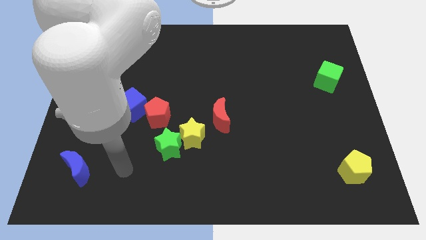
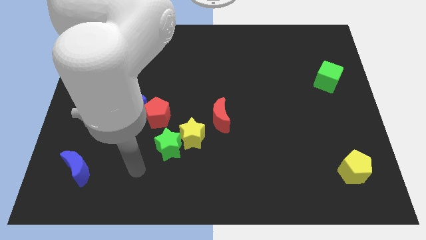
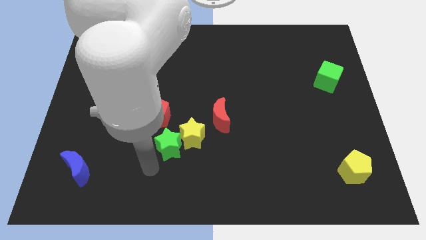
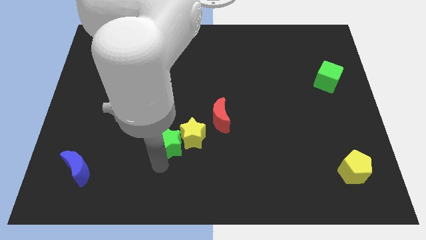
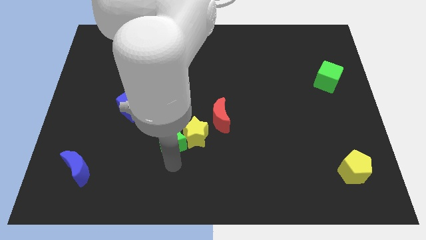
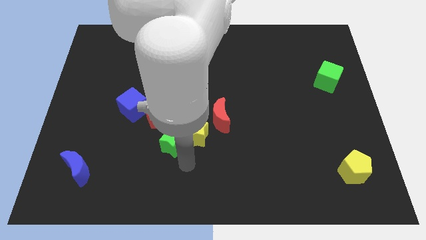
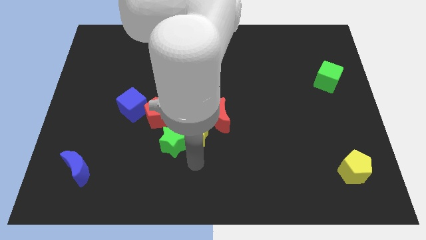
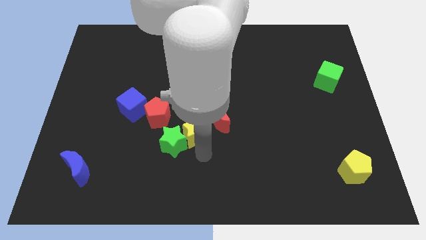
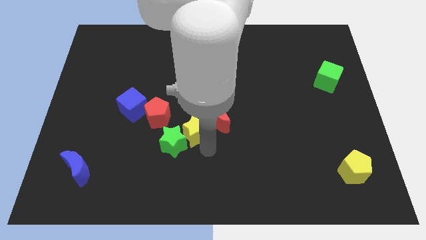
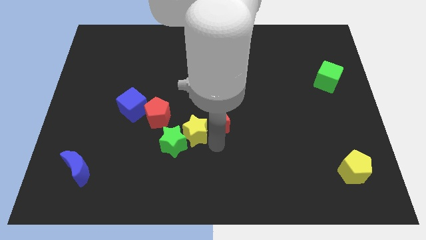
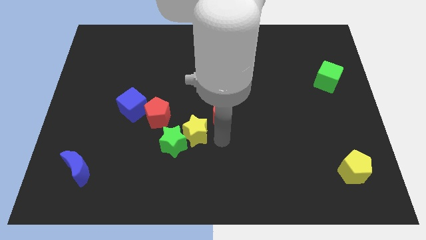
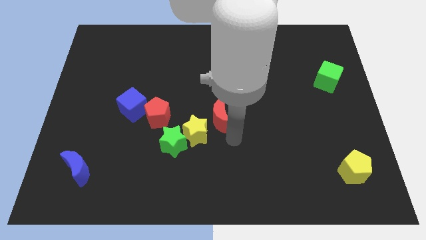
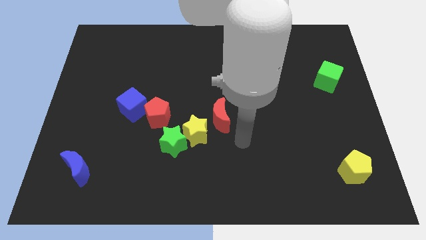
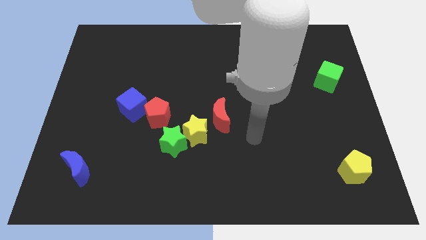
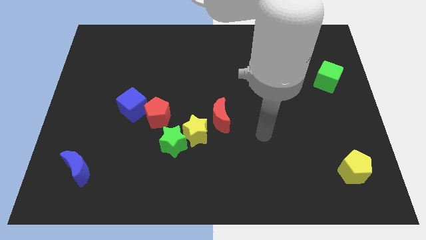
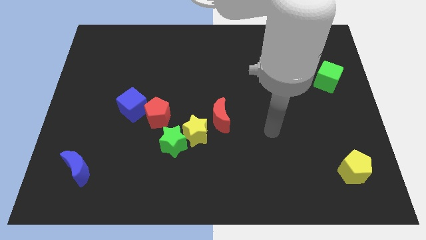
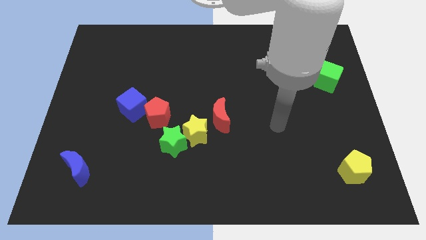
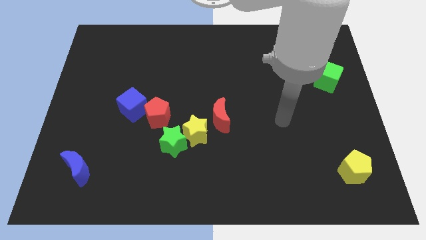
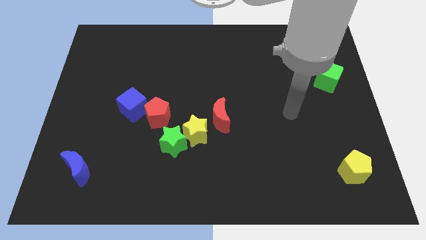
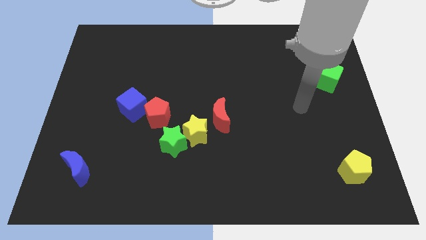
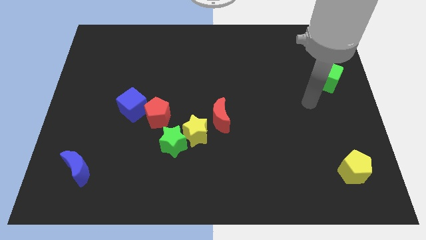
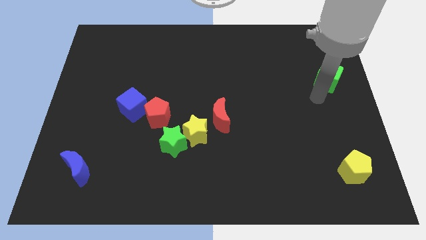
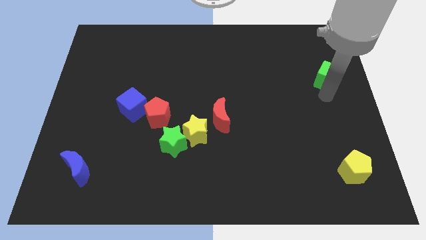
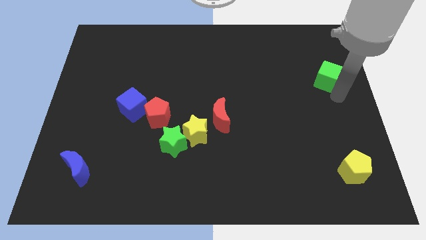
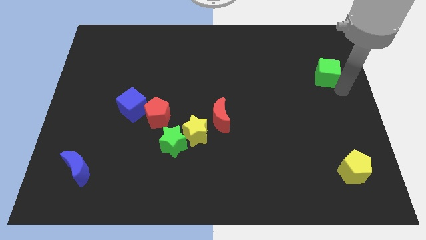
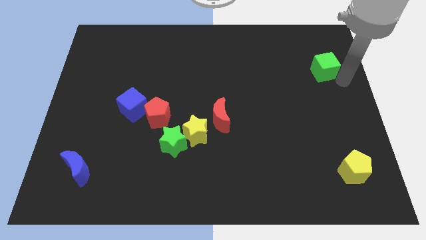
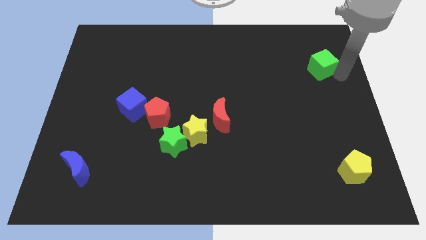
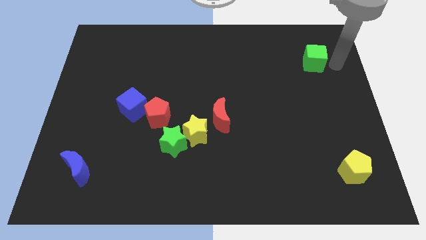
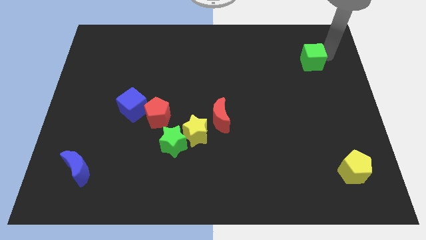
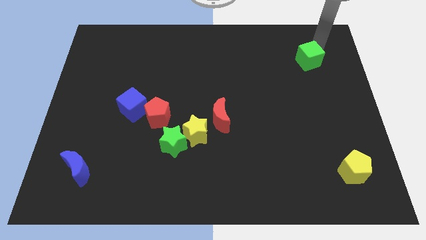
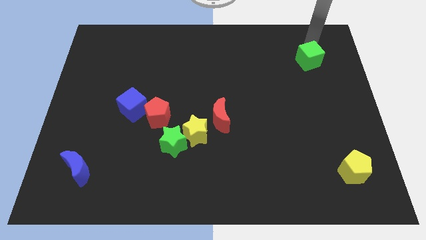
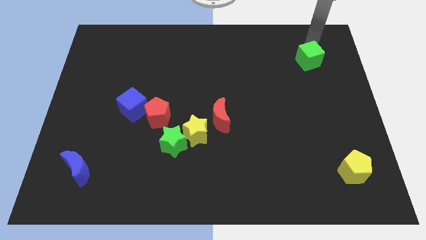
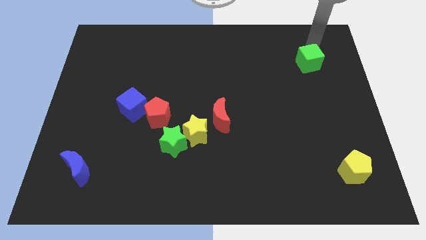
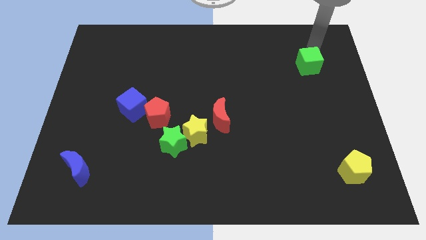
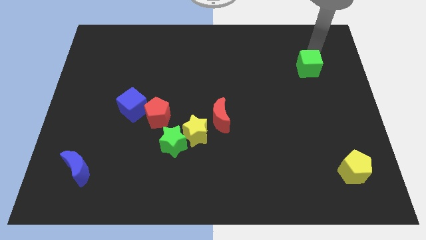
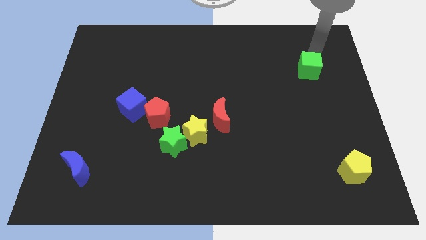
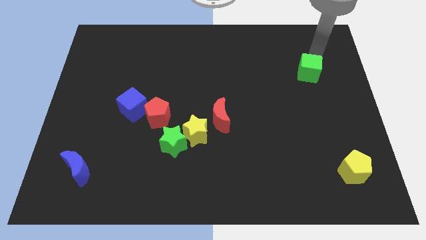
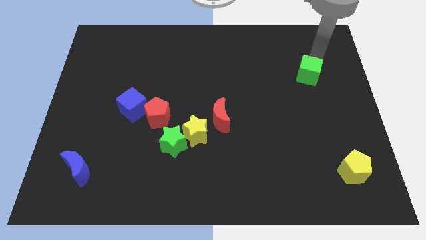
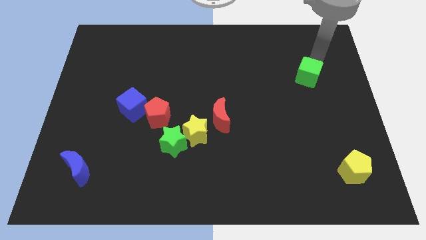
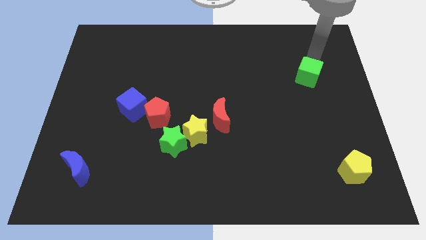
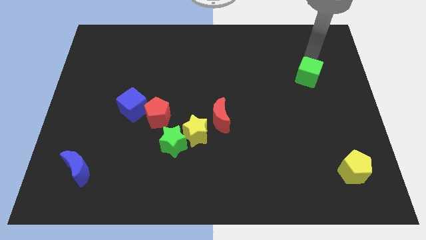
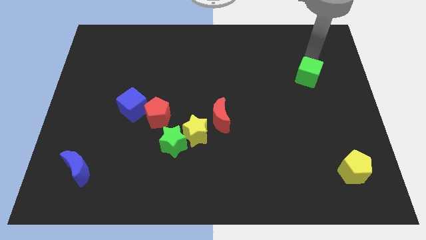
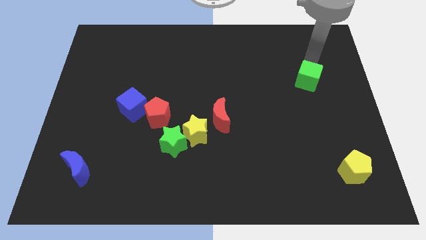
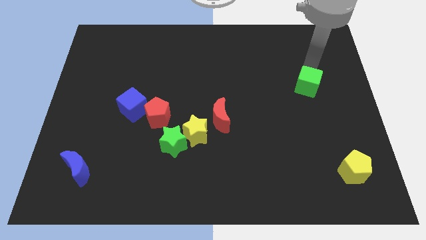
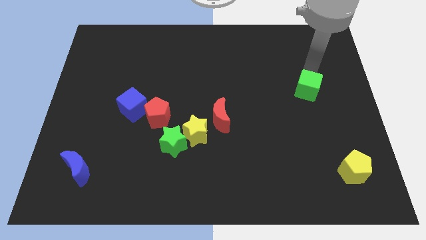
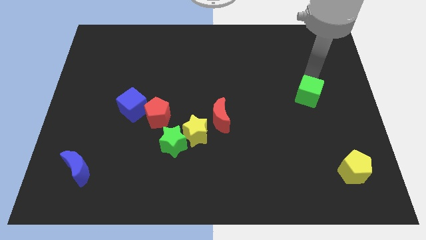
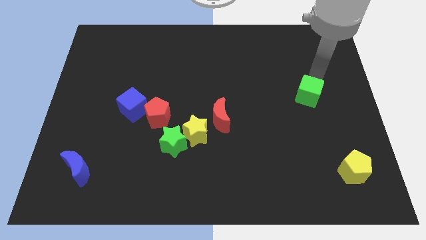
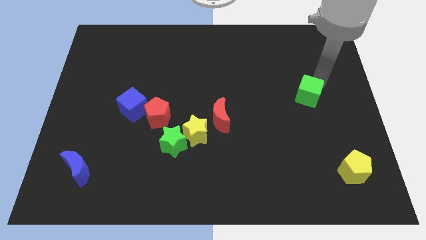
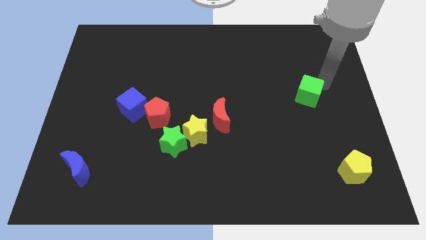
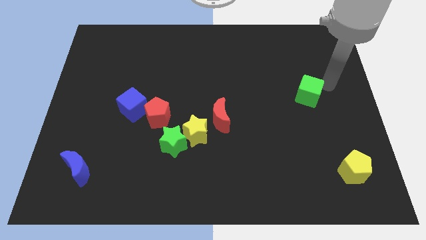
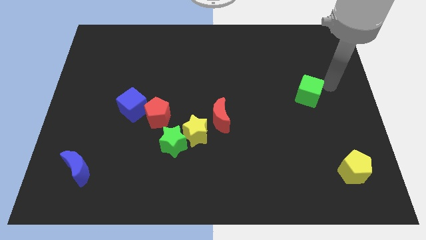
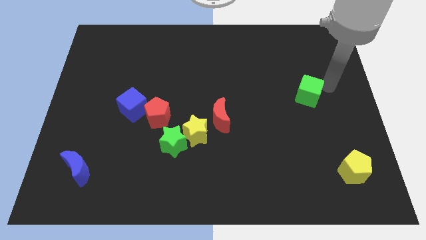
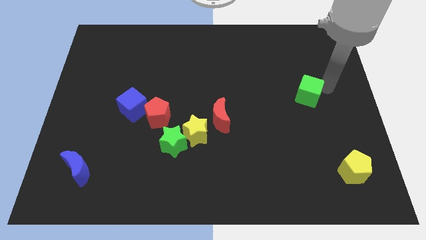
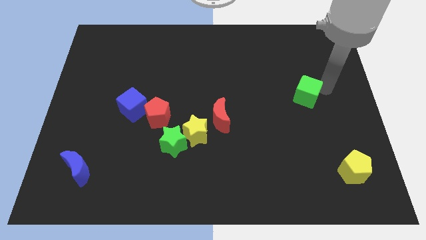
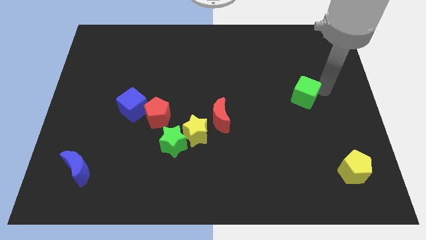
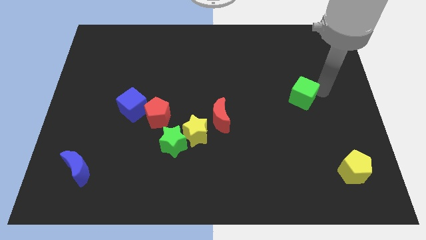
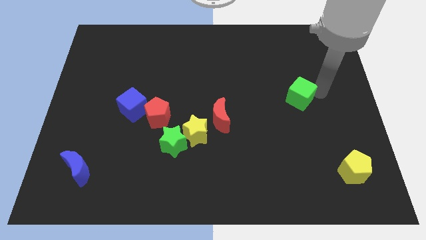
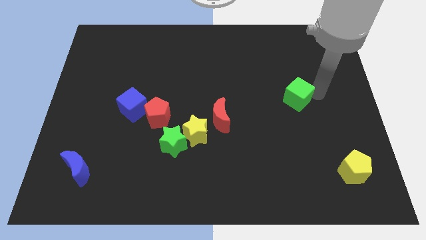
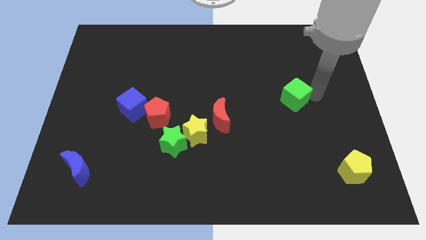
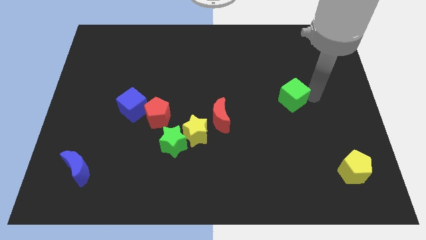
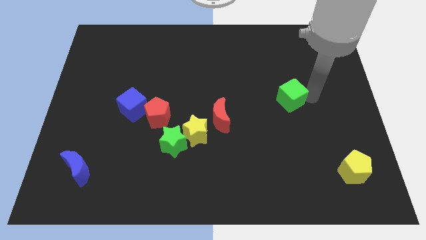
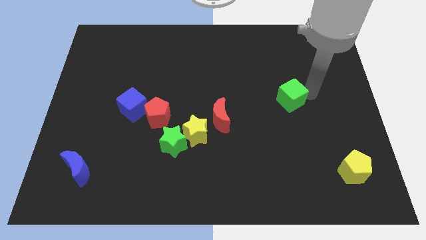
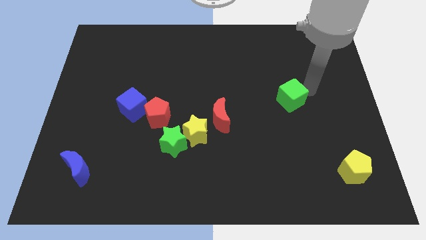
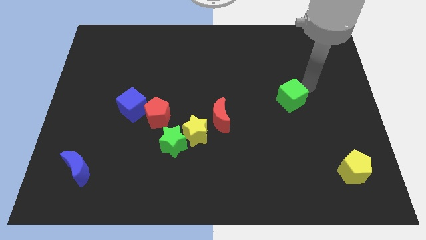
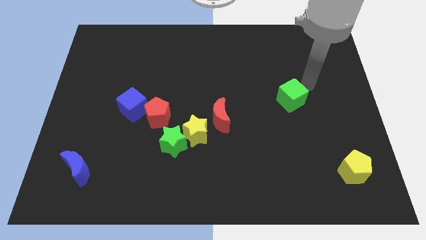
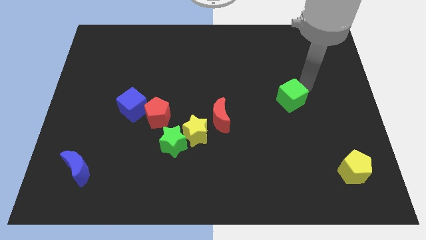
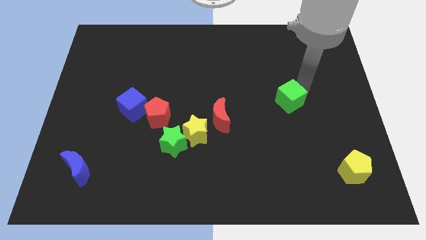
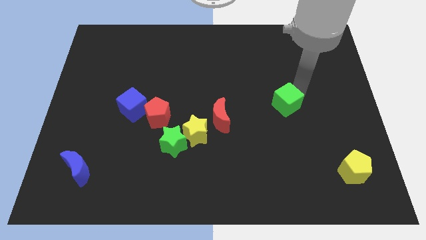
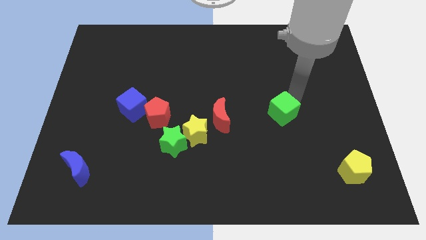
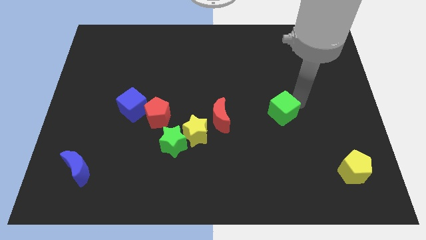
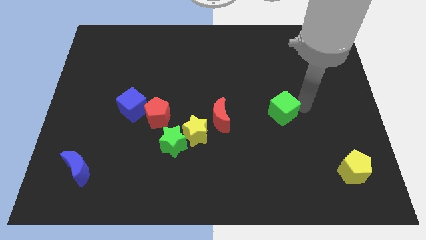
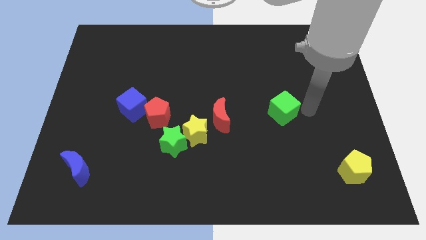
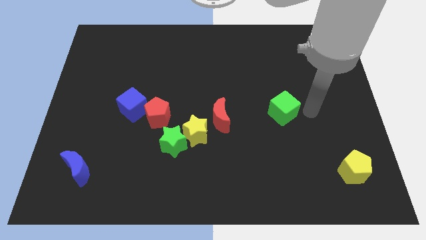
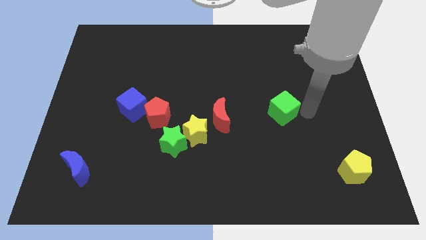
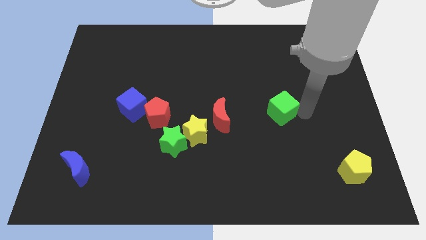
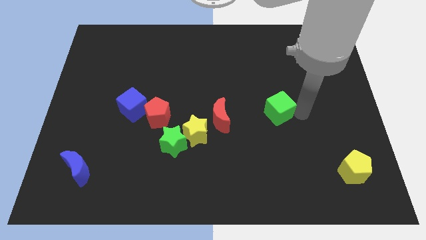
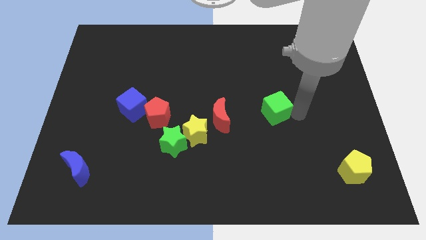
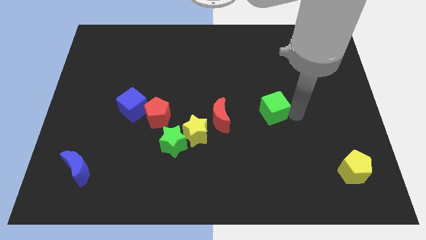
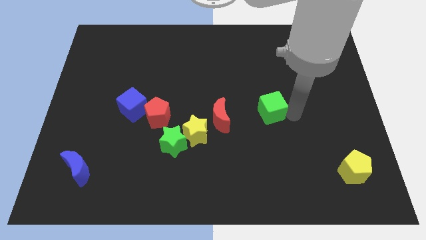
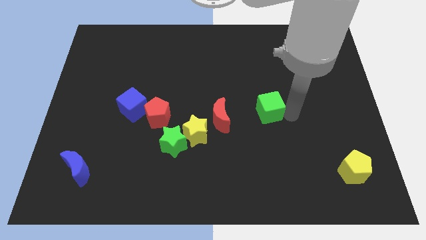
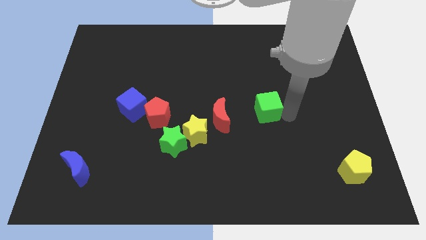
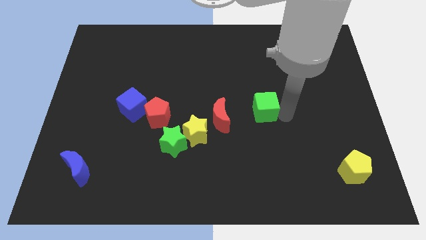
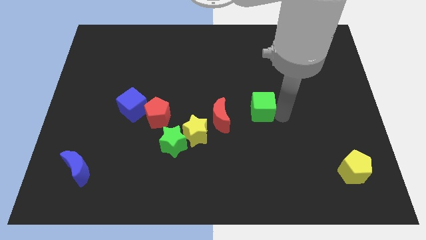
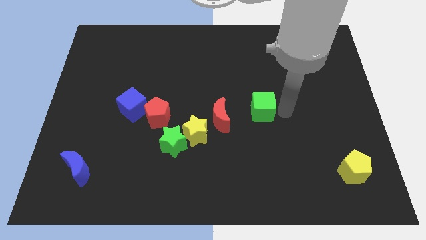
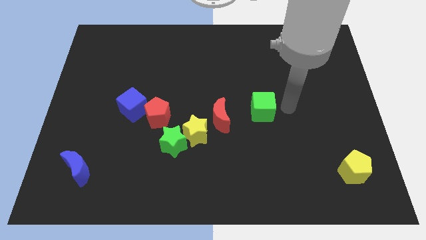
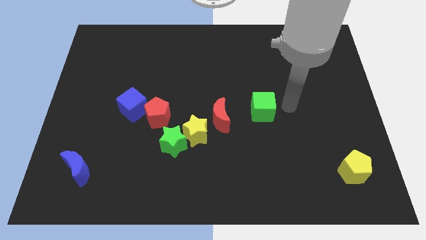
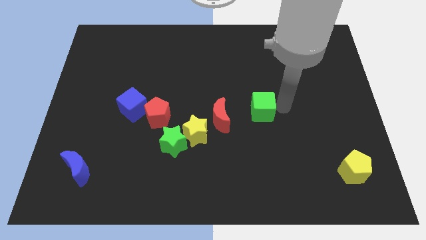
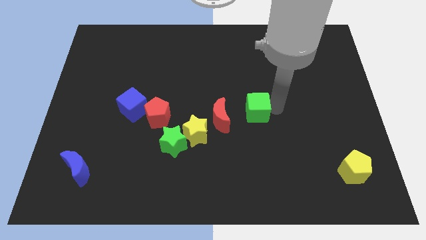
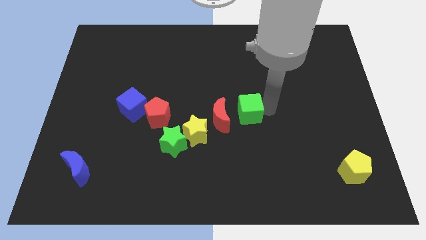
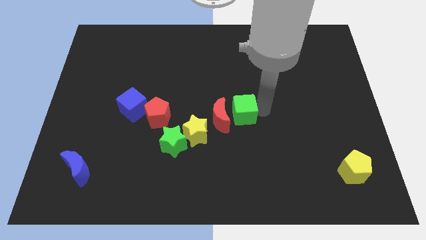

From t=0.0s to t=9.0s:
push the green cube close to the red moon
